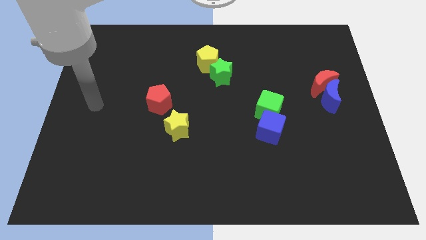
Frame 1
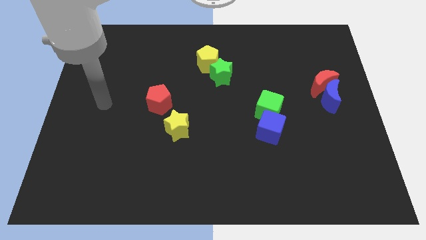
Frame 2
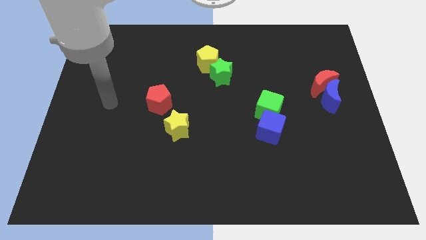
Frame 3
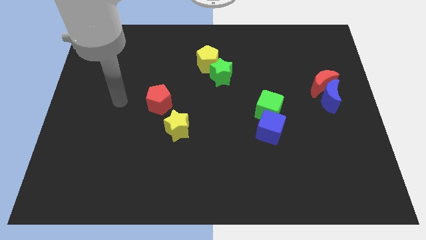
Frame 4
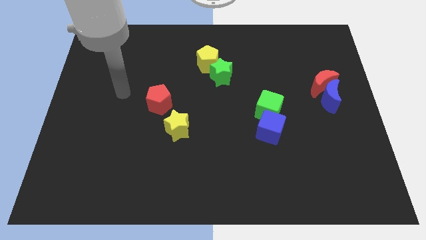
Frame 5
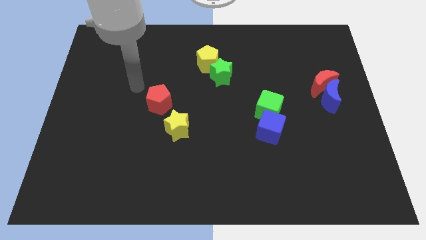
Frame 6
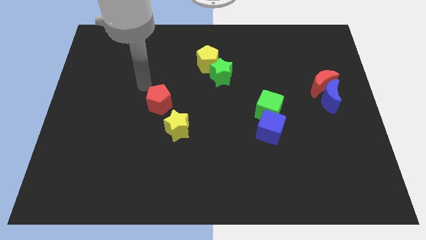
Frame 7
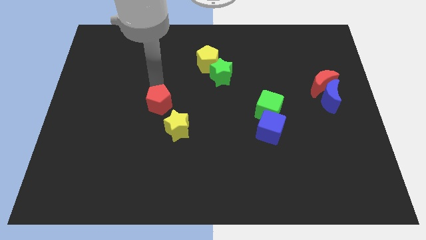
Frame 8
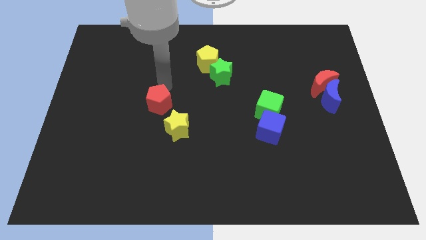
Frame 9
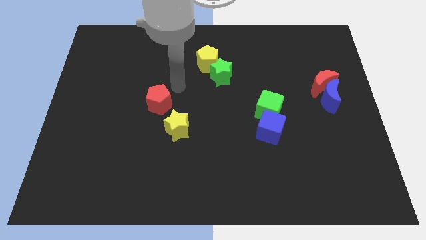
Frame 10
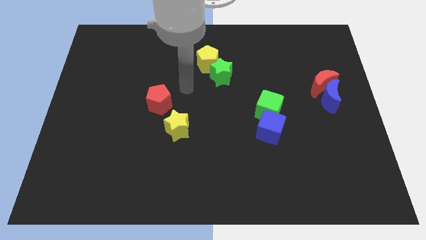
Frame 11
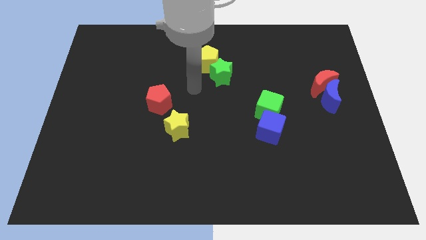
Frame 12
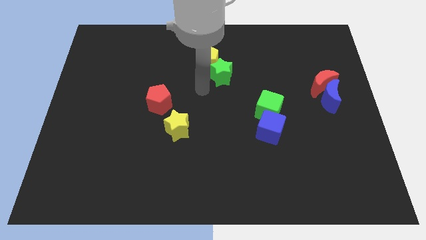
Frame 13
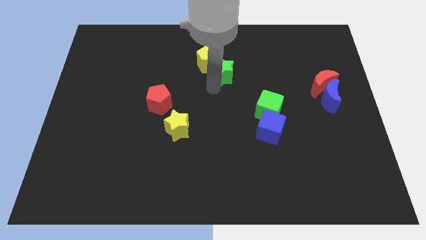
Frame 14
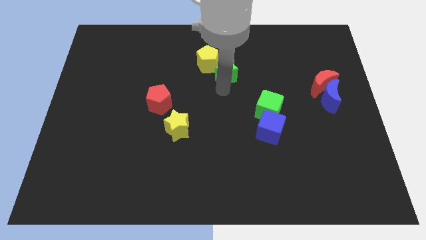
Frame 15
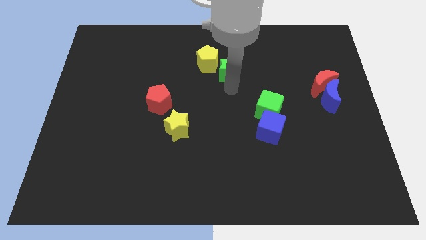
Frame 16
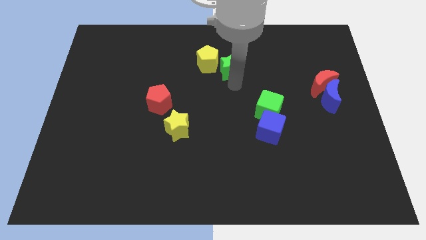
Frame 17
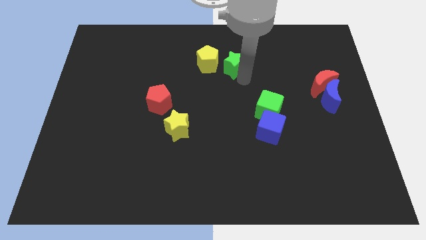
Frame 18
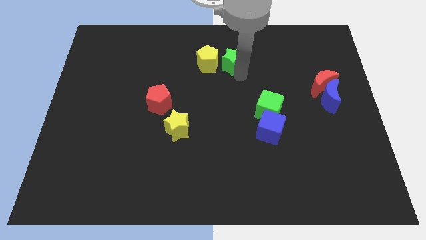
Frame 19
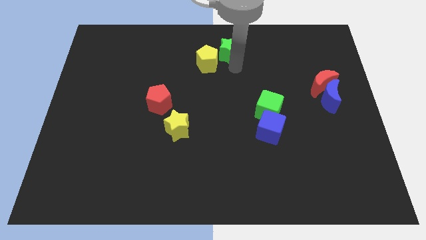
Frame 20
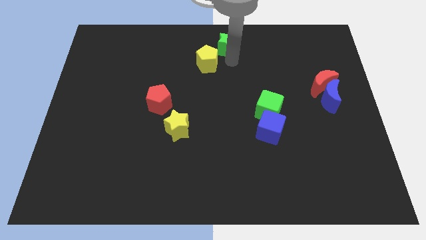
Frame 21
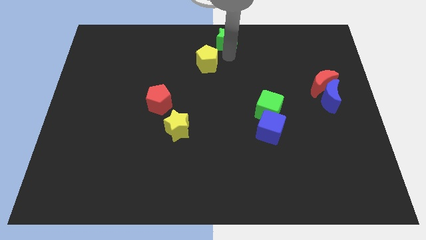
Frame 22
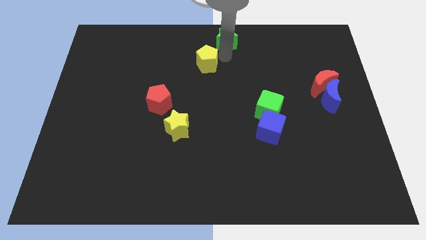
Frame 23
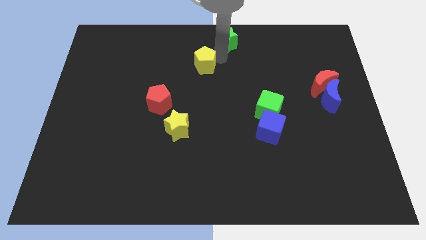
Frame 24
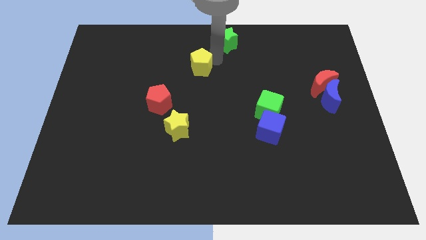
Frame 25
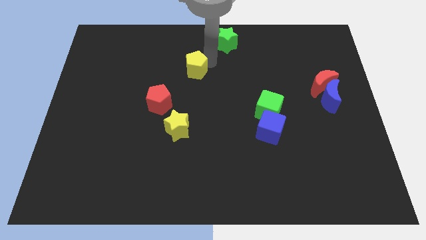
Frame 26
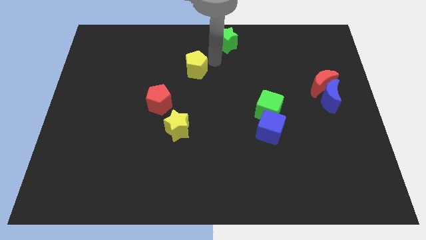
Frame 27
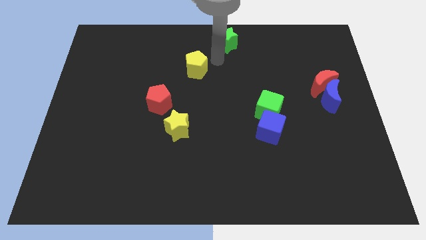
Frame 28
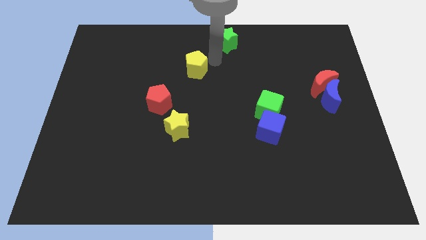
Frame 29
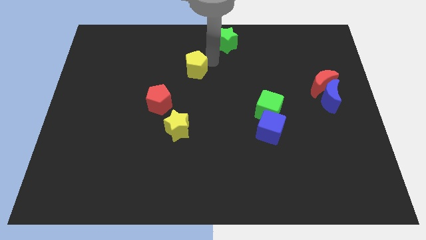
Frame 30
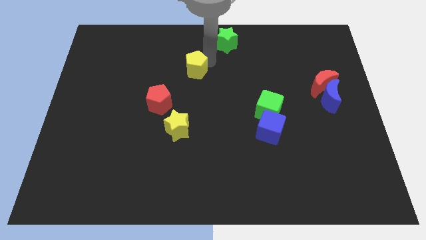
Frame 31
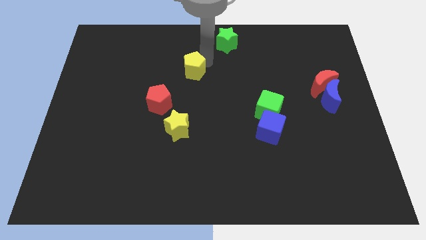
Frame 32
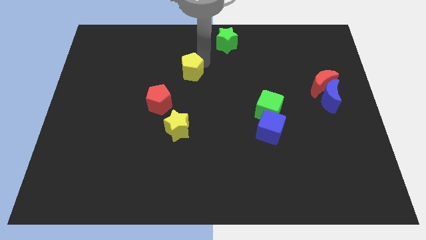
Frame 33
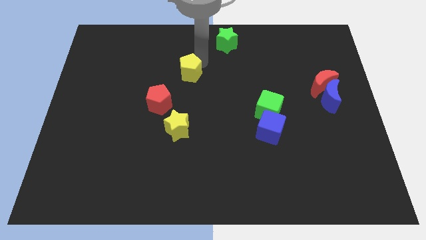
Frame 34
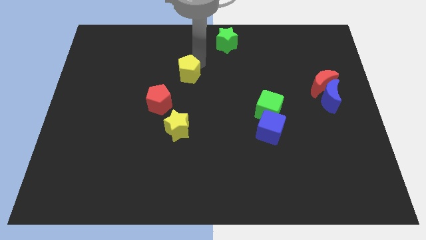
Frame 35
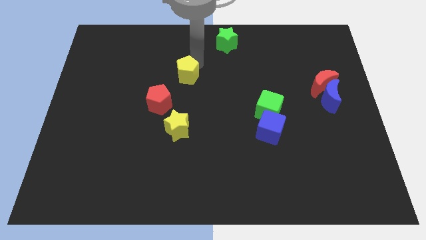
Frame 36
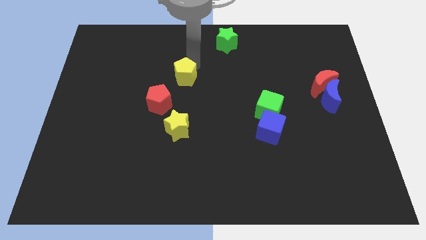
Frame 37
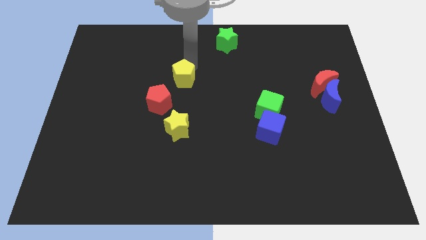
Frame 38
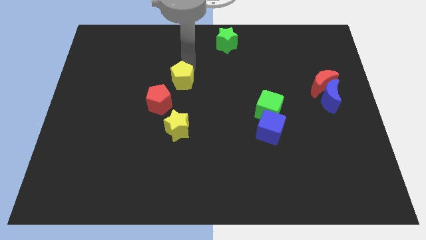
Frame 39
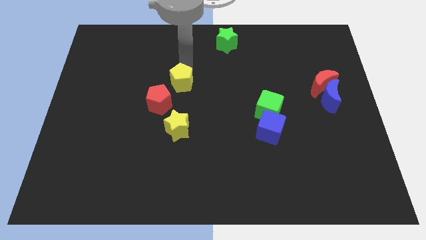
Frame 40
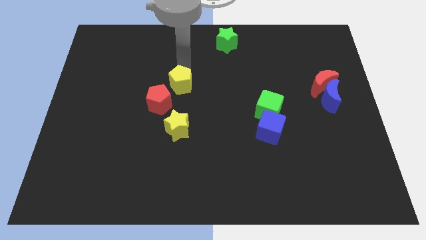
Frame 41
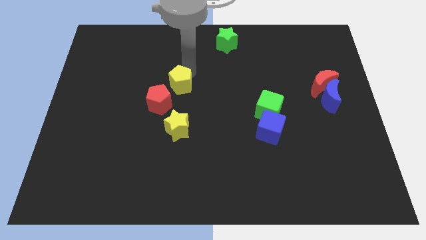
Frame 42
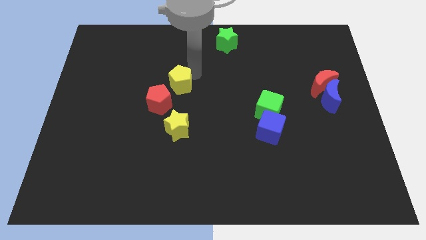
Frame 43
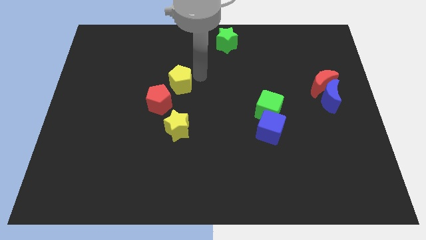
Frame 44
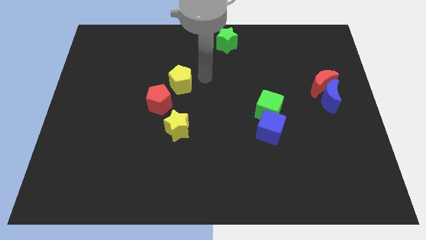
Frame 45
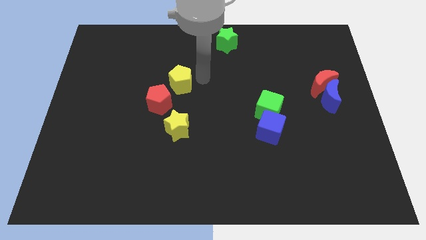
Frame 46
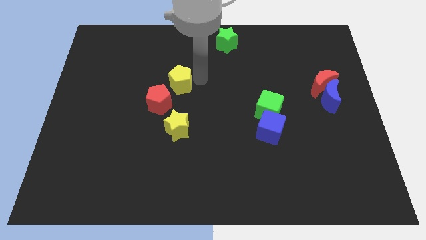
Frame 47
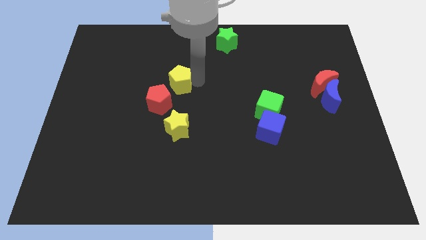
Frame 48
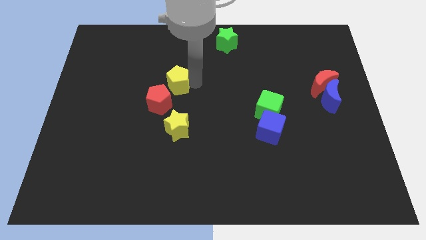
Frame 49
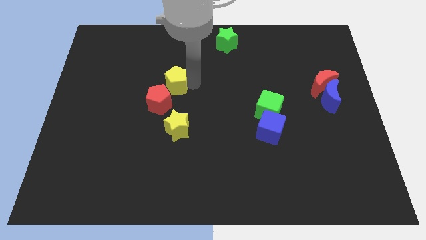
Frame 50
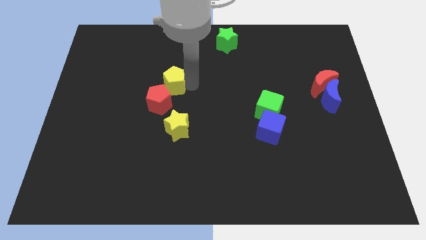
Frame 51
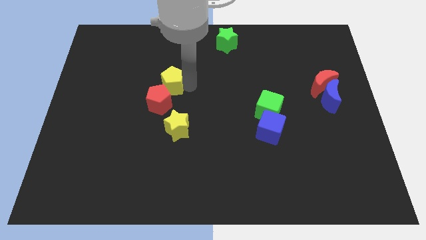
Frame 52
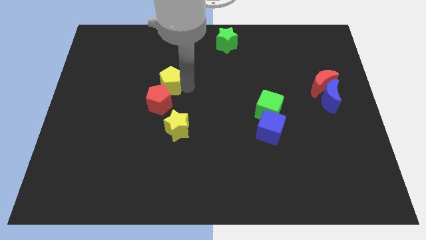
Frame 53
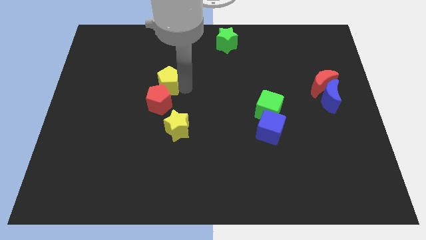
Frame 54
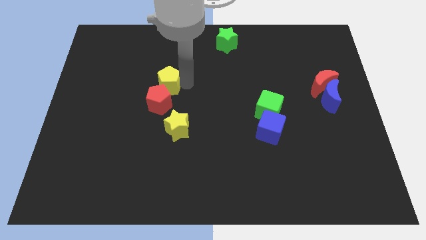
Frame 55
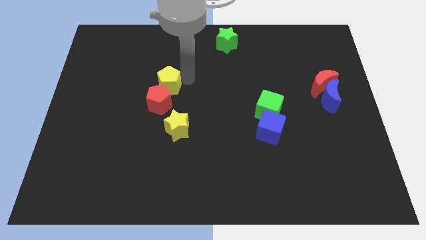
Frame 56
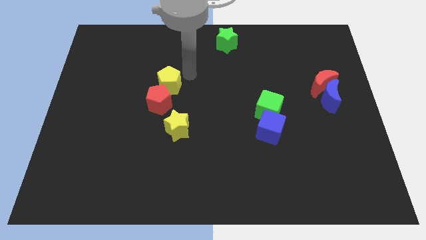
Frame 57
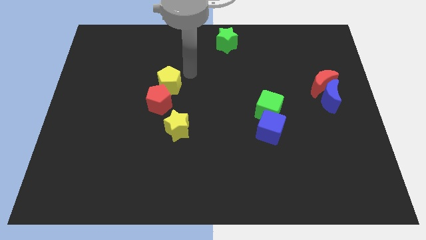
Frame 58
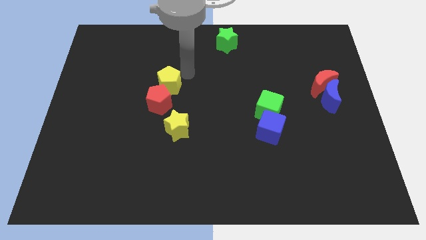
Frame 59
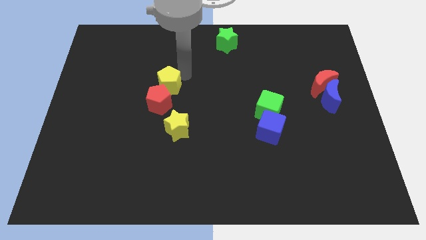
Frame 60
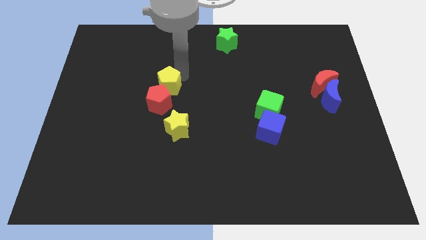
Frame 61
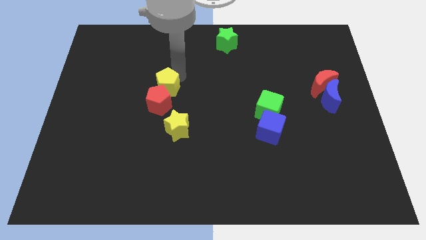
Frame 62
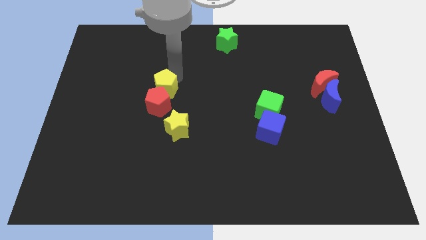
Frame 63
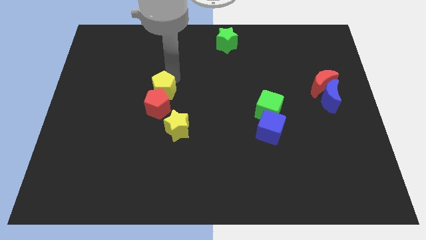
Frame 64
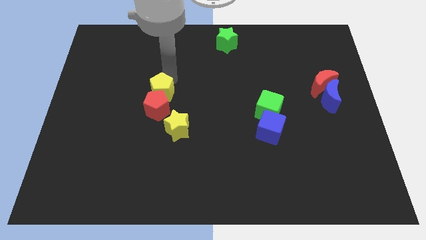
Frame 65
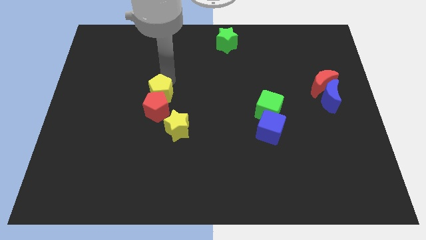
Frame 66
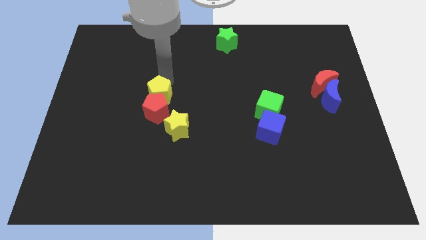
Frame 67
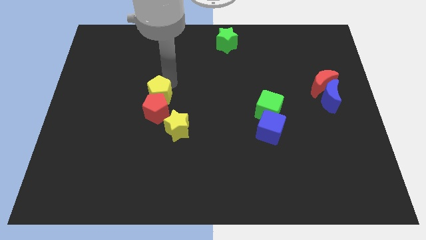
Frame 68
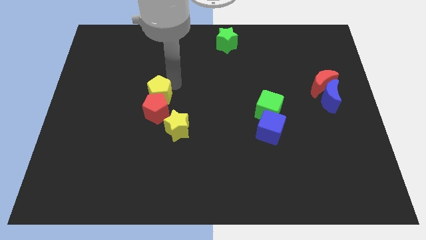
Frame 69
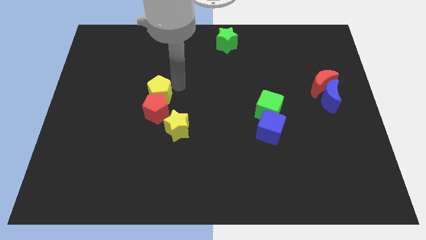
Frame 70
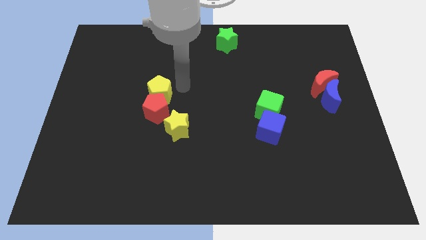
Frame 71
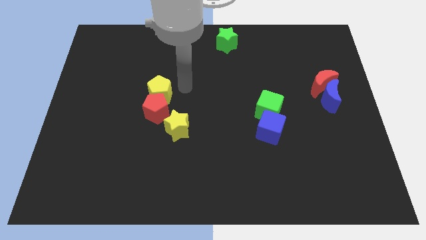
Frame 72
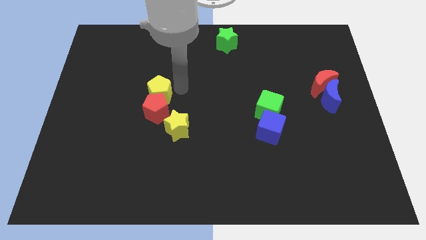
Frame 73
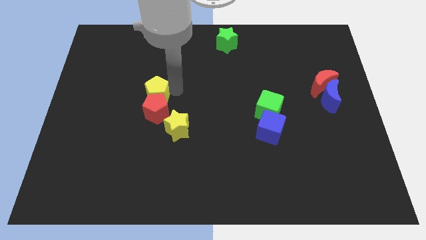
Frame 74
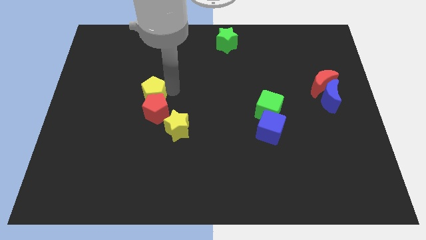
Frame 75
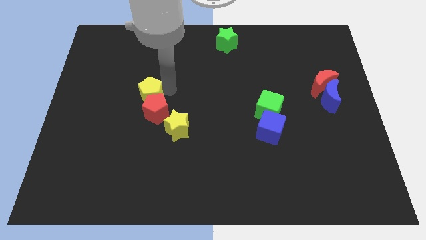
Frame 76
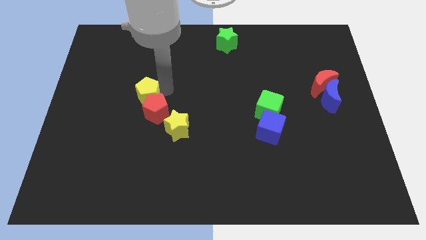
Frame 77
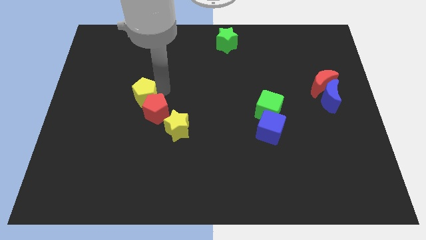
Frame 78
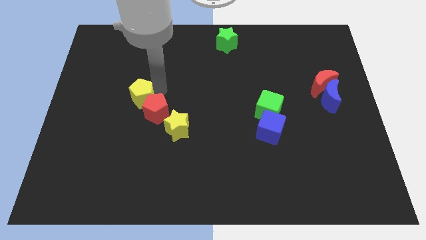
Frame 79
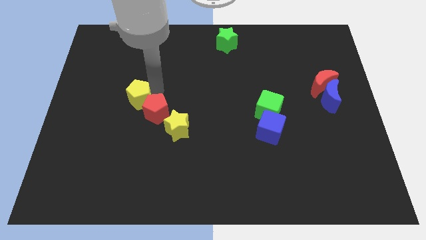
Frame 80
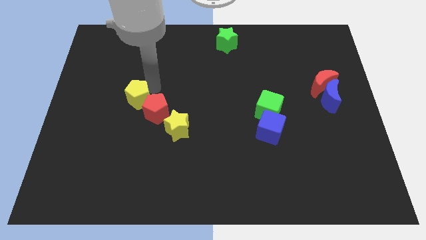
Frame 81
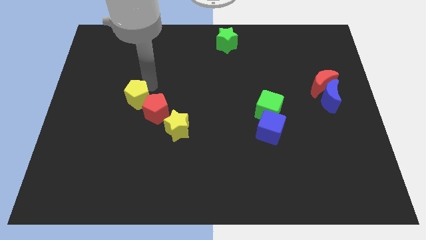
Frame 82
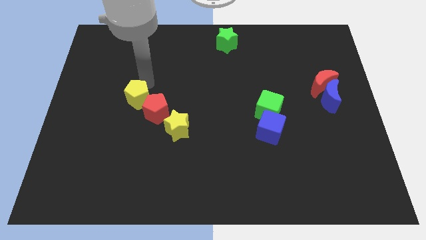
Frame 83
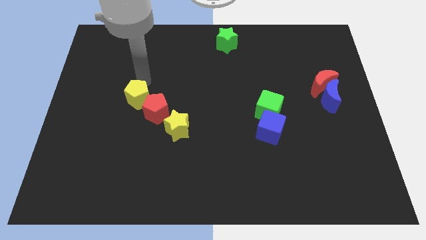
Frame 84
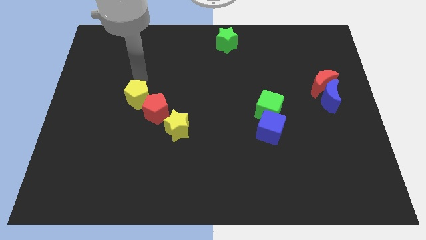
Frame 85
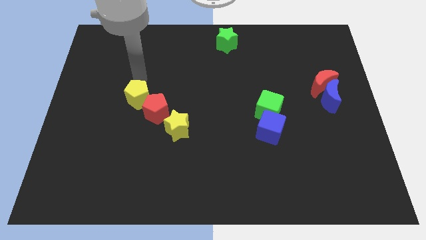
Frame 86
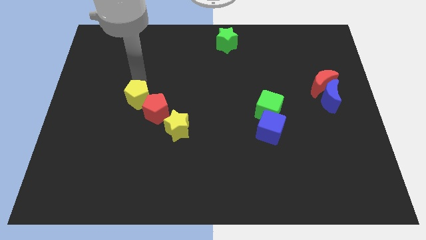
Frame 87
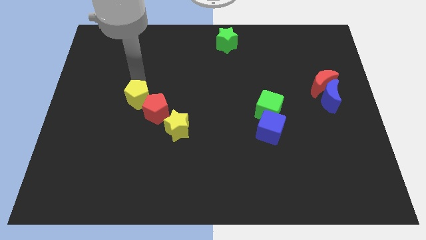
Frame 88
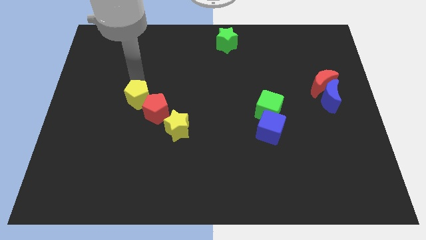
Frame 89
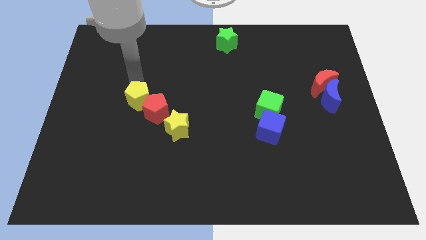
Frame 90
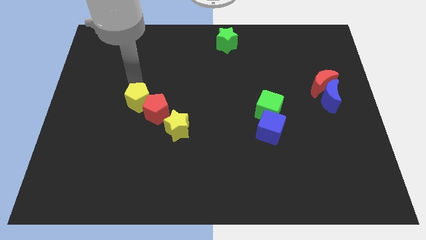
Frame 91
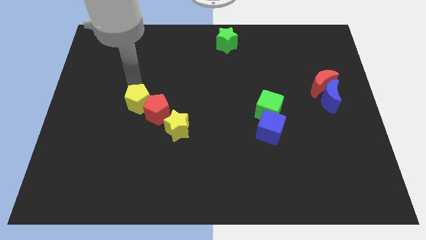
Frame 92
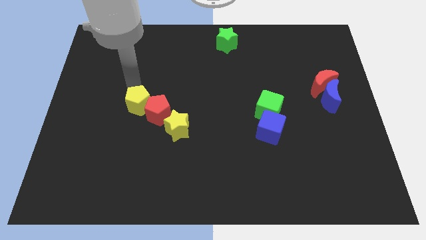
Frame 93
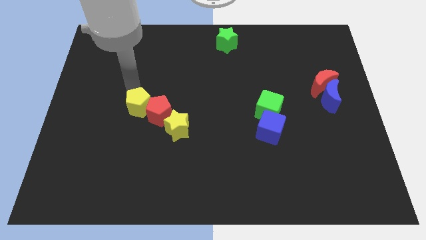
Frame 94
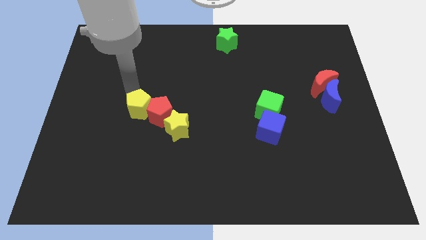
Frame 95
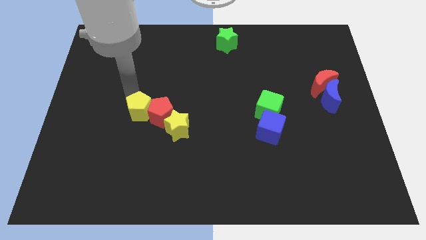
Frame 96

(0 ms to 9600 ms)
put the yellow pentagon to the left side of the yellow star
